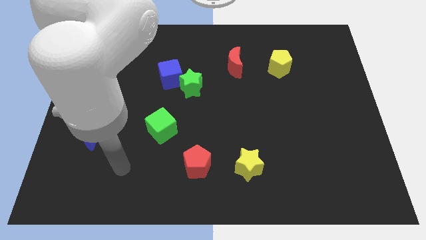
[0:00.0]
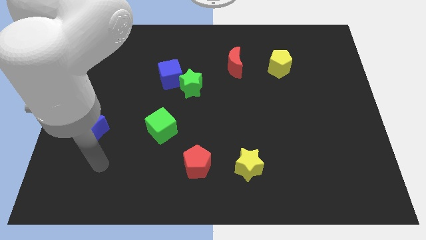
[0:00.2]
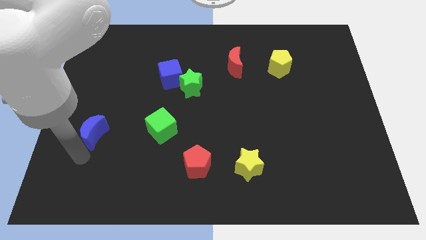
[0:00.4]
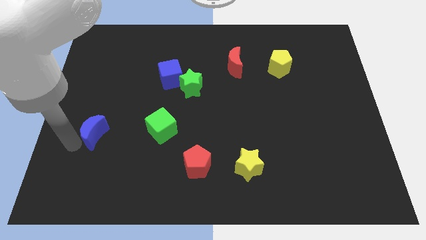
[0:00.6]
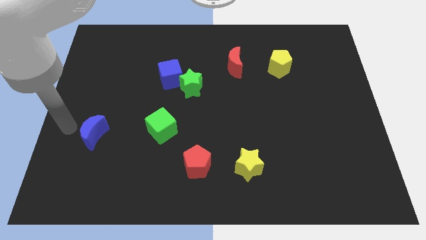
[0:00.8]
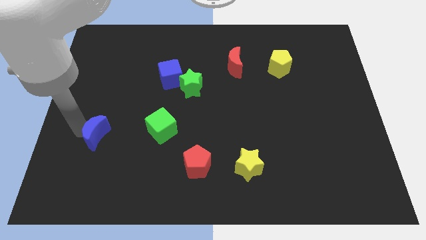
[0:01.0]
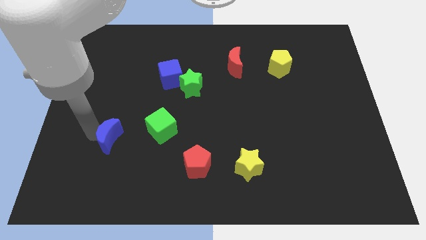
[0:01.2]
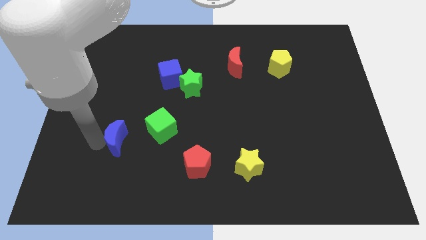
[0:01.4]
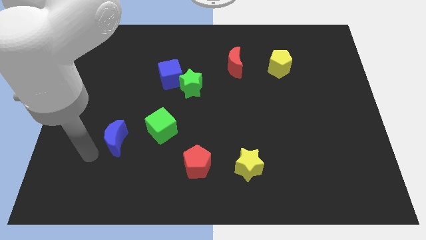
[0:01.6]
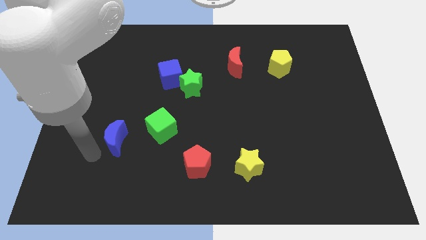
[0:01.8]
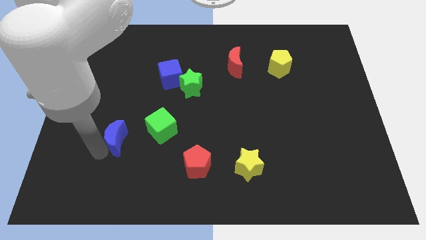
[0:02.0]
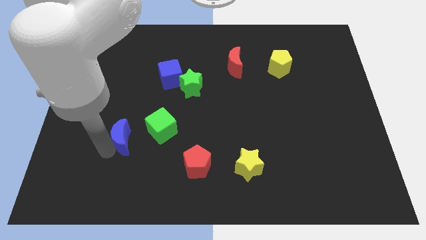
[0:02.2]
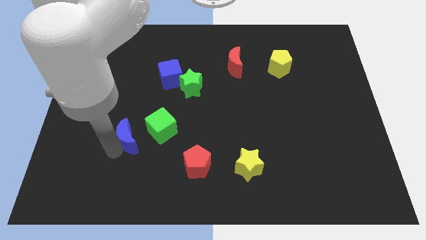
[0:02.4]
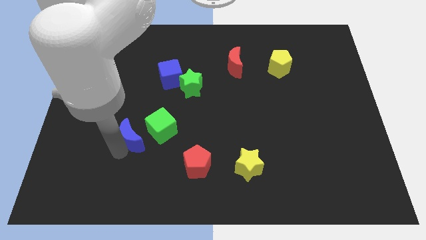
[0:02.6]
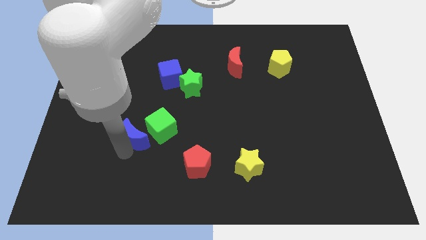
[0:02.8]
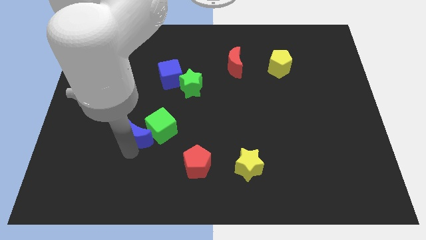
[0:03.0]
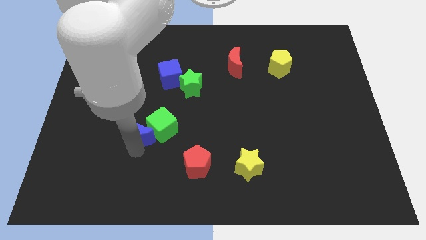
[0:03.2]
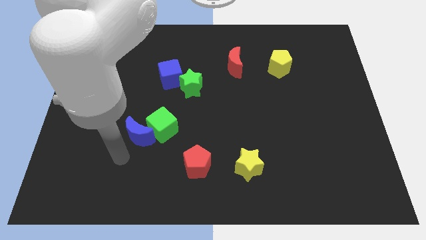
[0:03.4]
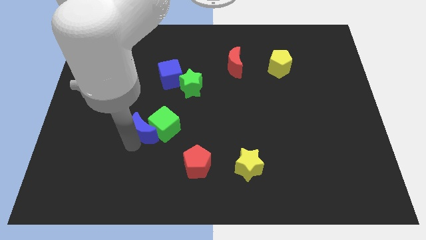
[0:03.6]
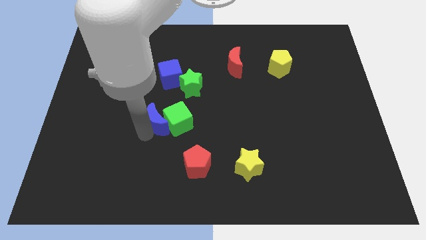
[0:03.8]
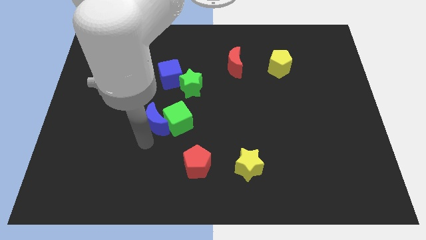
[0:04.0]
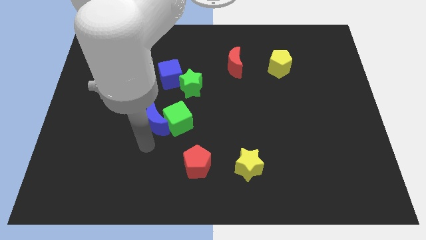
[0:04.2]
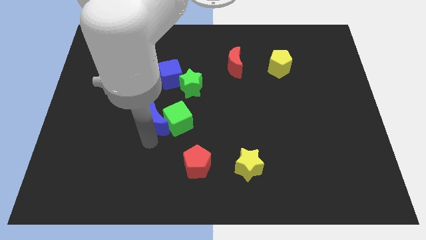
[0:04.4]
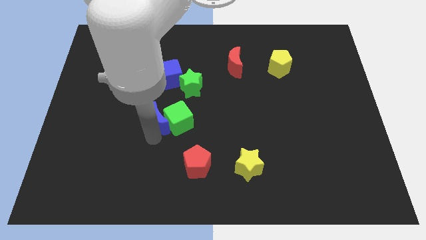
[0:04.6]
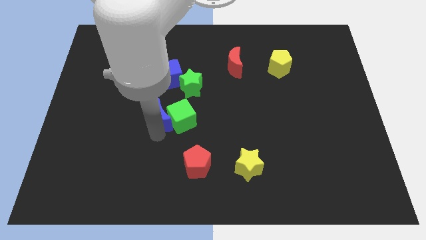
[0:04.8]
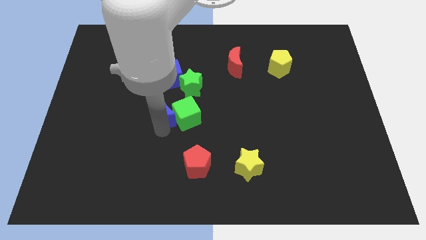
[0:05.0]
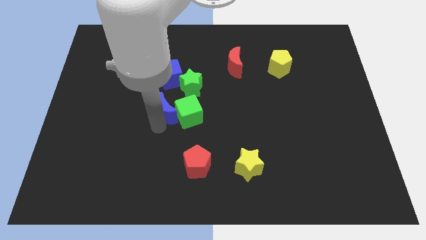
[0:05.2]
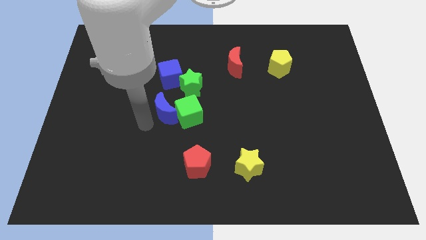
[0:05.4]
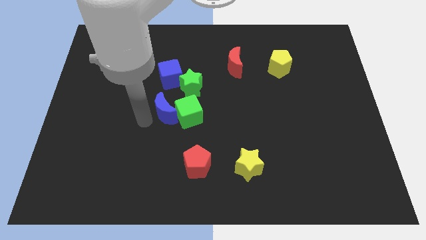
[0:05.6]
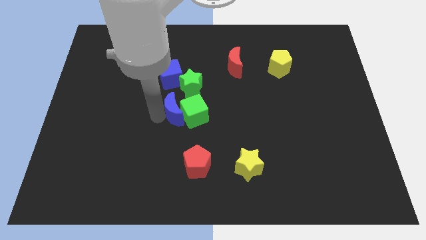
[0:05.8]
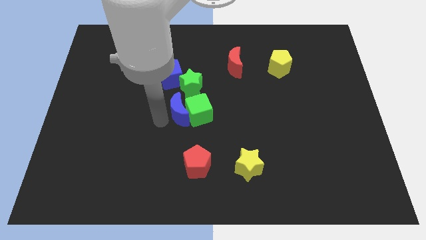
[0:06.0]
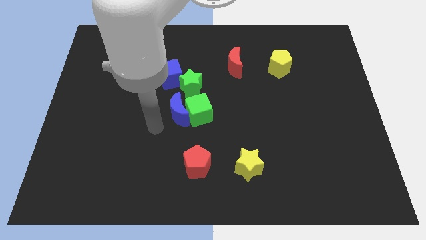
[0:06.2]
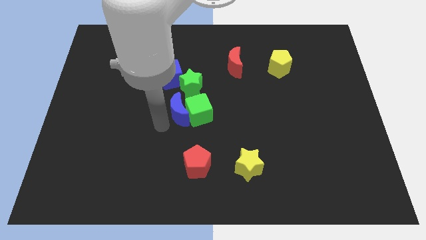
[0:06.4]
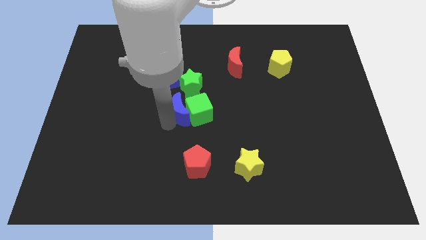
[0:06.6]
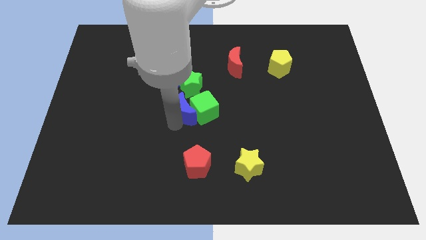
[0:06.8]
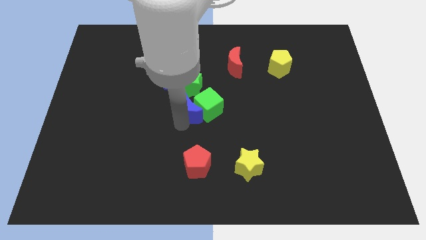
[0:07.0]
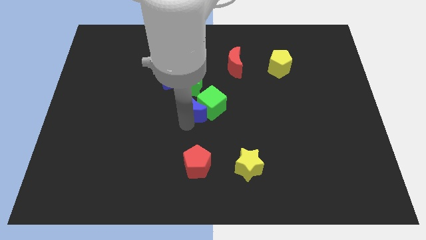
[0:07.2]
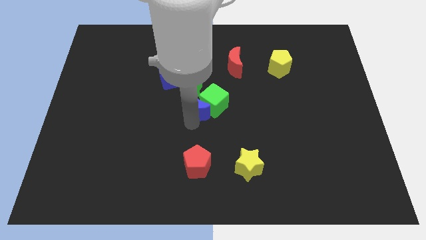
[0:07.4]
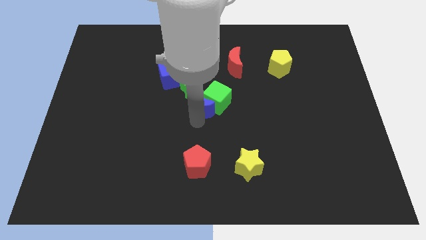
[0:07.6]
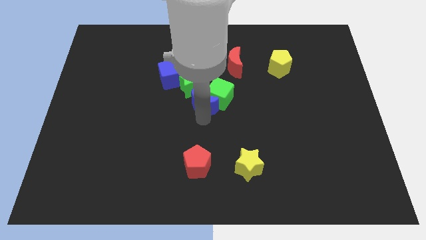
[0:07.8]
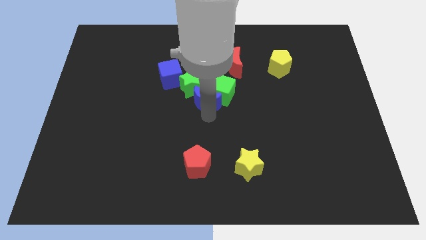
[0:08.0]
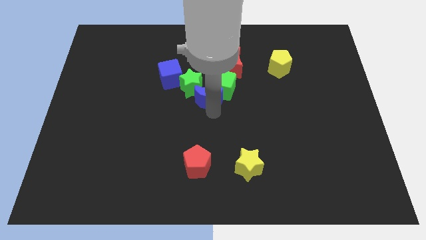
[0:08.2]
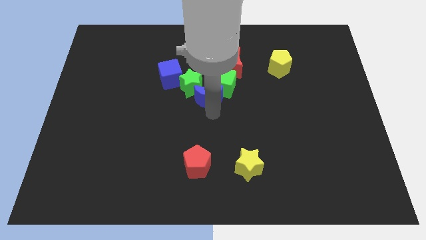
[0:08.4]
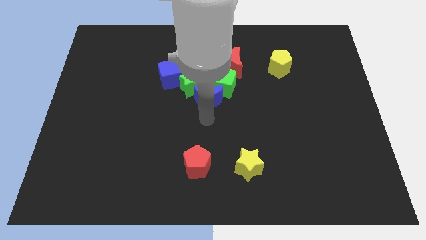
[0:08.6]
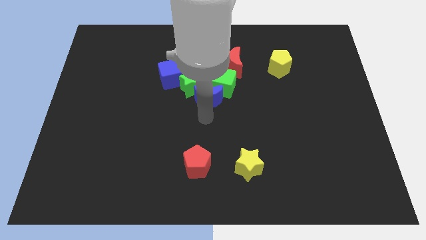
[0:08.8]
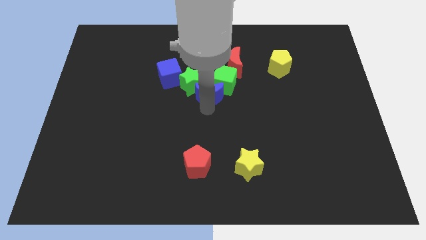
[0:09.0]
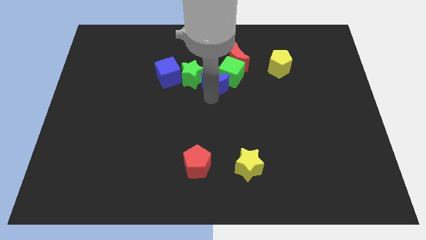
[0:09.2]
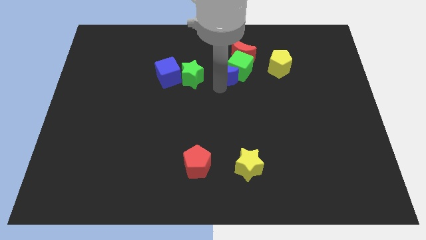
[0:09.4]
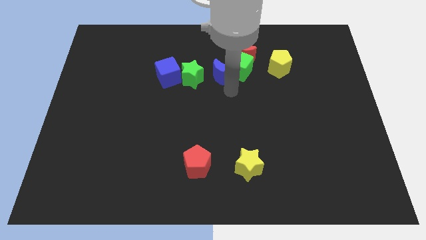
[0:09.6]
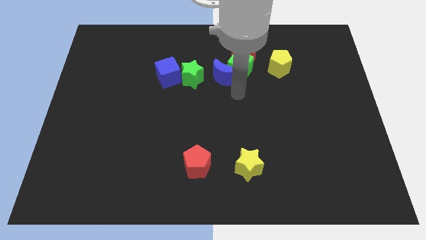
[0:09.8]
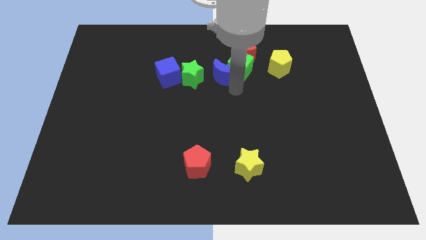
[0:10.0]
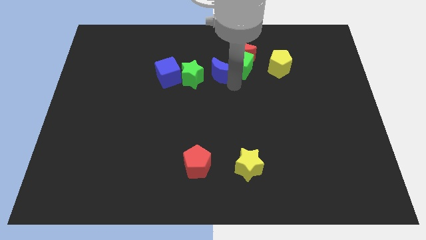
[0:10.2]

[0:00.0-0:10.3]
push the blue moon diagonally up and to the right of the green star

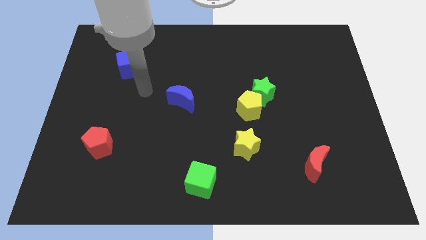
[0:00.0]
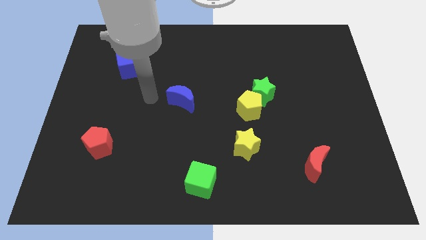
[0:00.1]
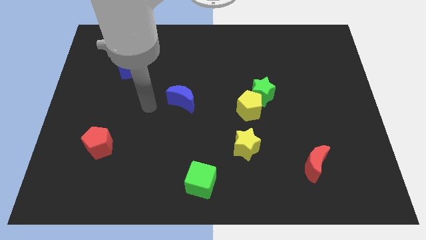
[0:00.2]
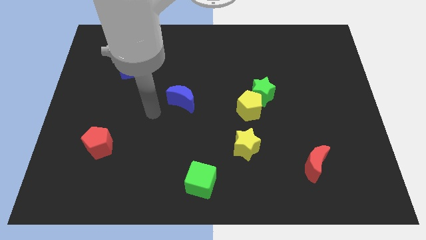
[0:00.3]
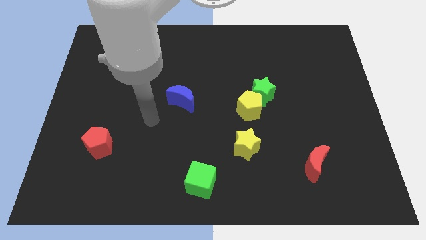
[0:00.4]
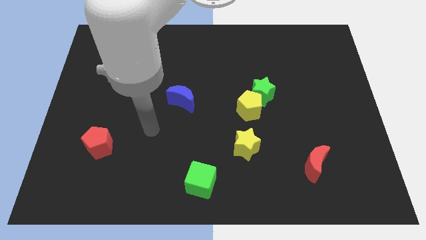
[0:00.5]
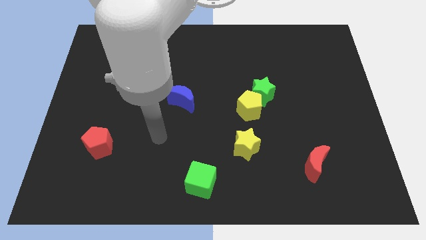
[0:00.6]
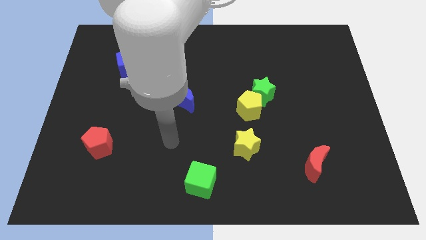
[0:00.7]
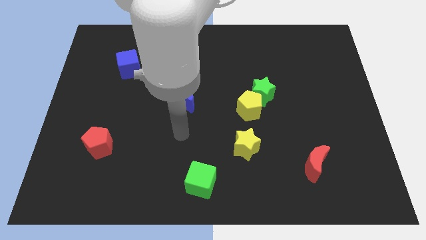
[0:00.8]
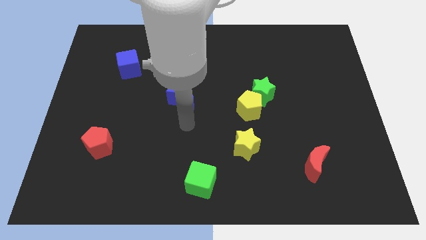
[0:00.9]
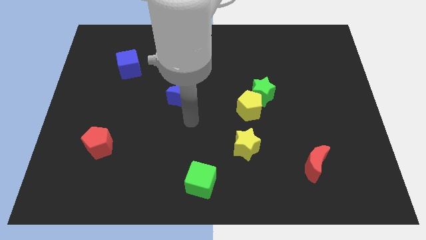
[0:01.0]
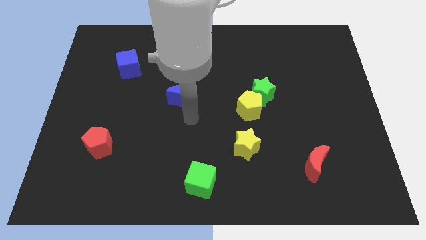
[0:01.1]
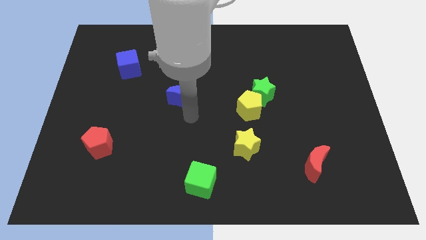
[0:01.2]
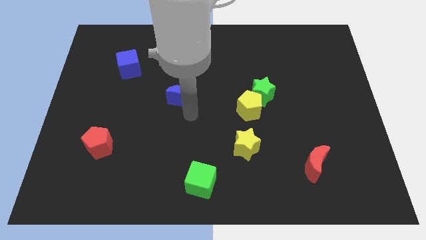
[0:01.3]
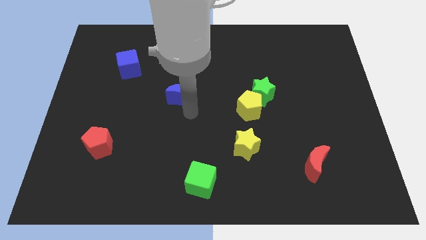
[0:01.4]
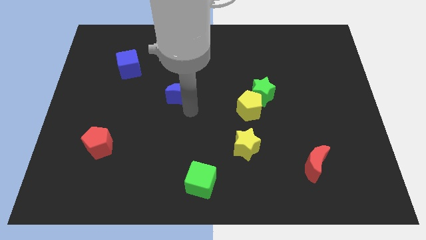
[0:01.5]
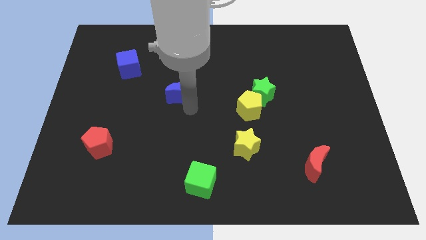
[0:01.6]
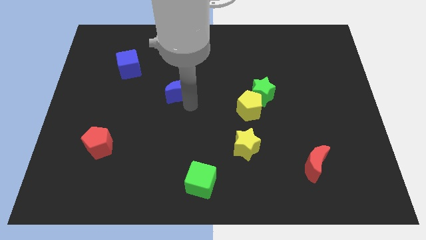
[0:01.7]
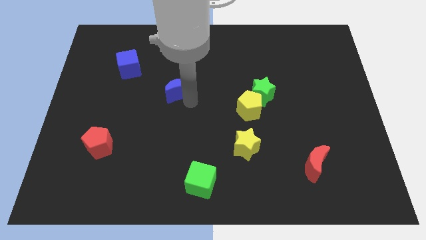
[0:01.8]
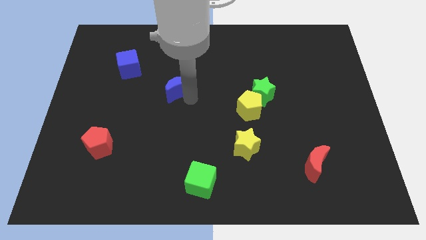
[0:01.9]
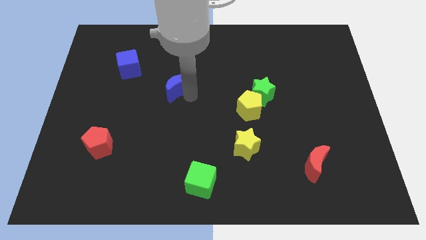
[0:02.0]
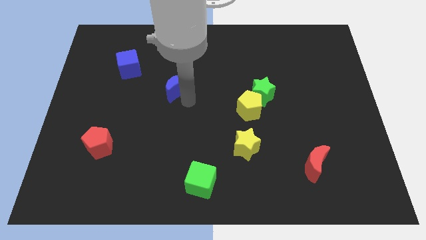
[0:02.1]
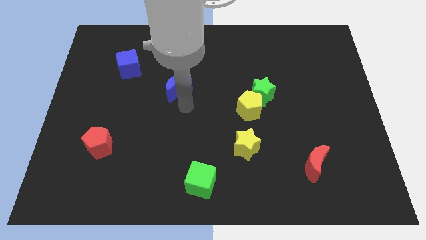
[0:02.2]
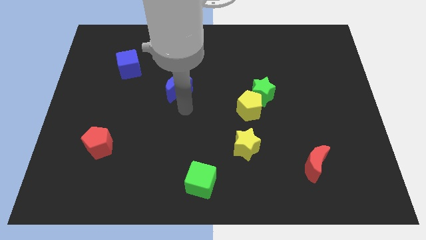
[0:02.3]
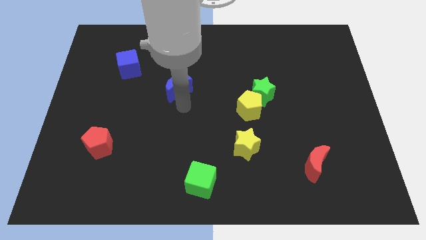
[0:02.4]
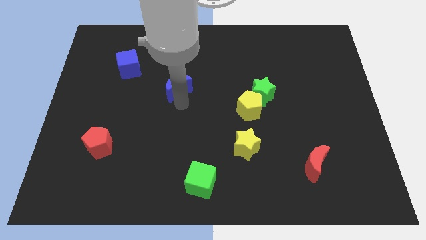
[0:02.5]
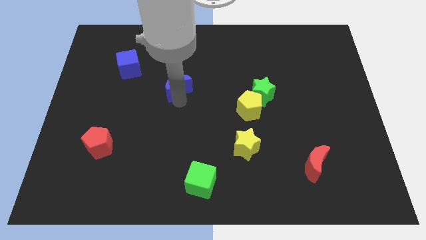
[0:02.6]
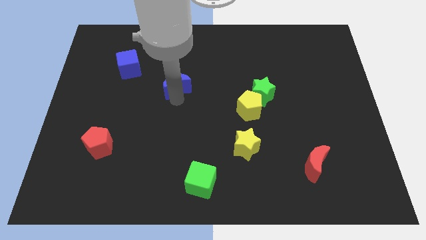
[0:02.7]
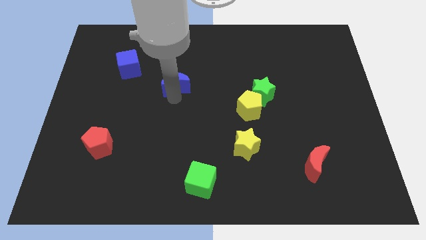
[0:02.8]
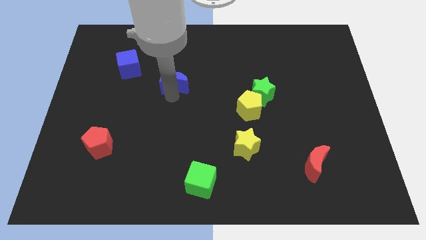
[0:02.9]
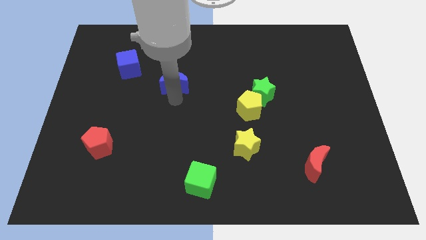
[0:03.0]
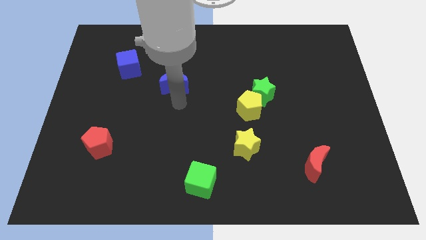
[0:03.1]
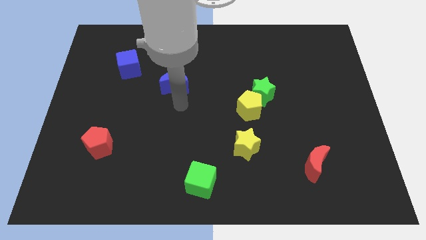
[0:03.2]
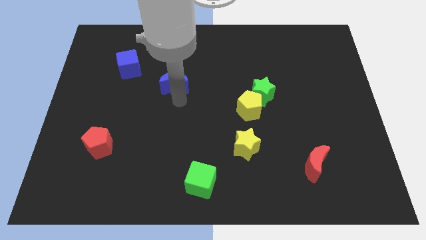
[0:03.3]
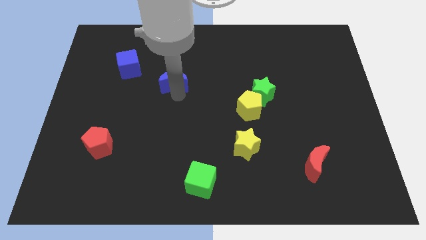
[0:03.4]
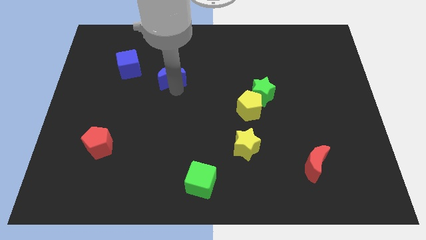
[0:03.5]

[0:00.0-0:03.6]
push the blue moon to the right side of the blue cube
